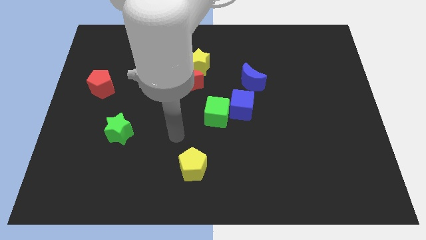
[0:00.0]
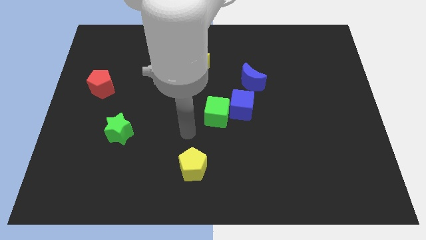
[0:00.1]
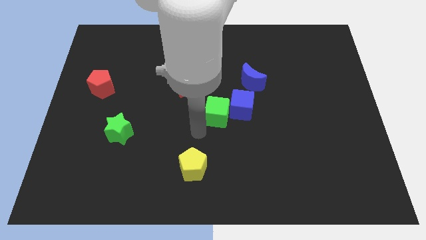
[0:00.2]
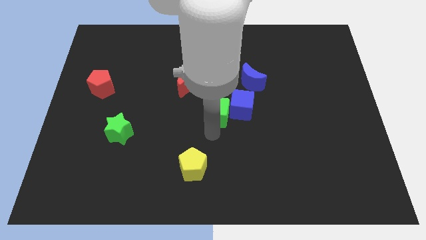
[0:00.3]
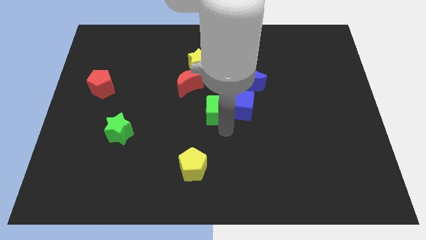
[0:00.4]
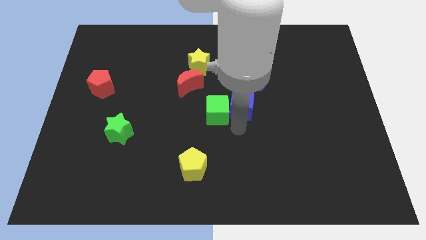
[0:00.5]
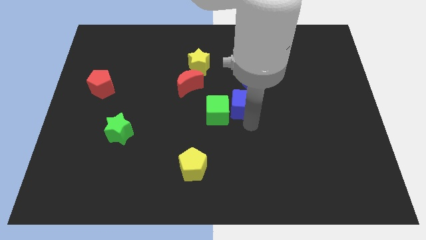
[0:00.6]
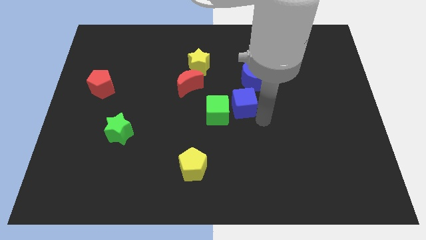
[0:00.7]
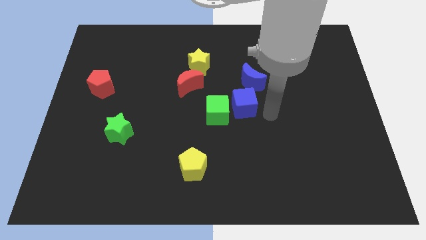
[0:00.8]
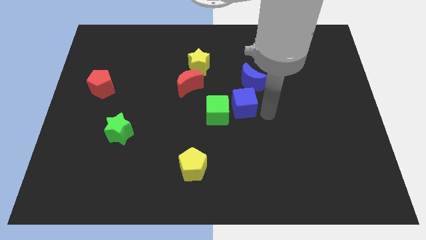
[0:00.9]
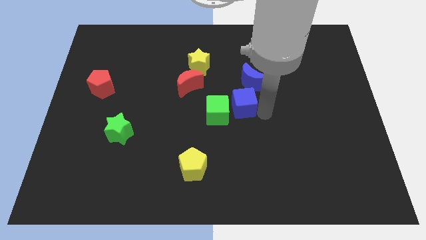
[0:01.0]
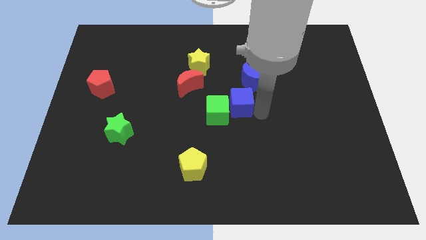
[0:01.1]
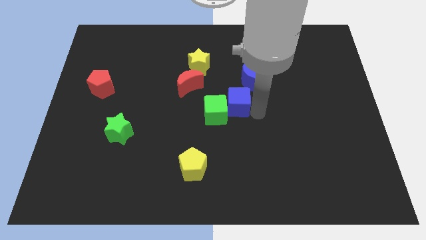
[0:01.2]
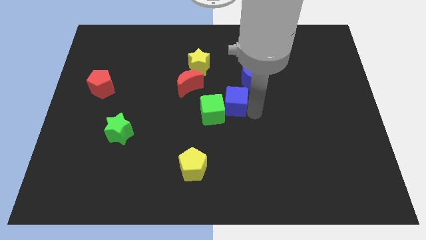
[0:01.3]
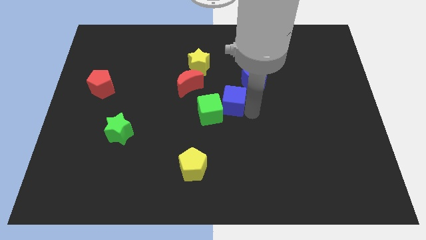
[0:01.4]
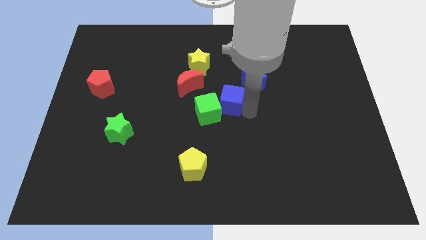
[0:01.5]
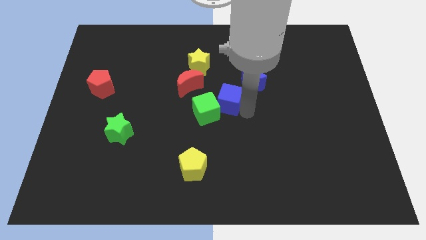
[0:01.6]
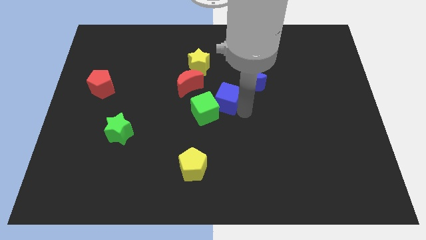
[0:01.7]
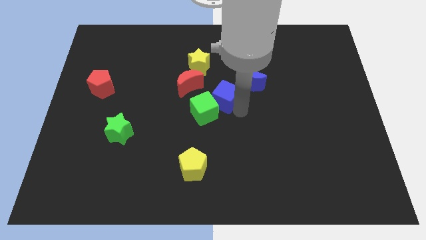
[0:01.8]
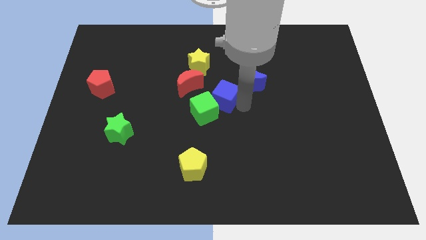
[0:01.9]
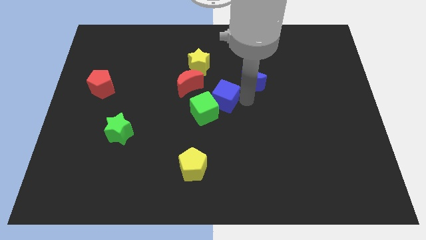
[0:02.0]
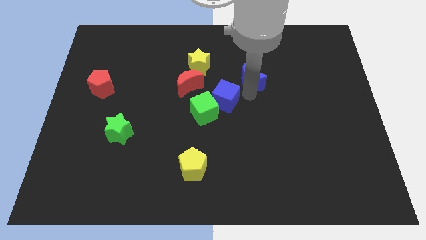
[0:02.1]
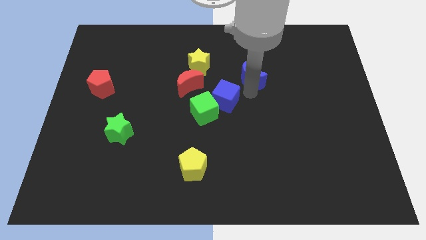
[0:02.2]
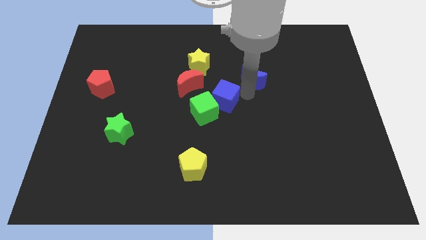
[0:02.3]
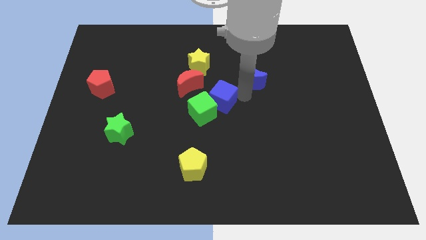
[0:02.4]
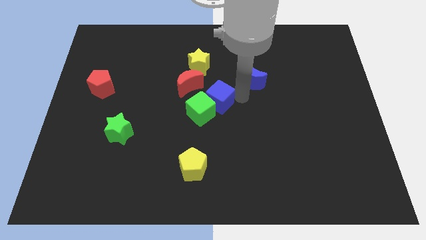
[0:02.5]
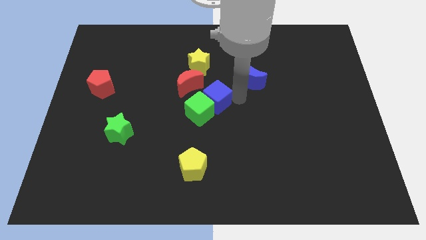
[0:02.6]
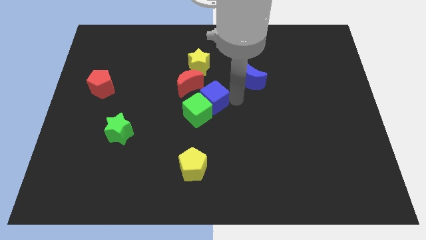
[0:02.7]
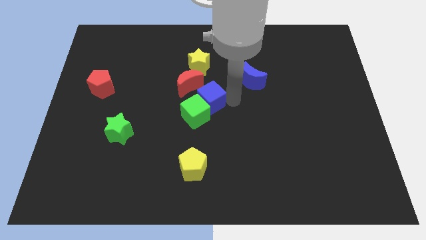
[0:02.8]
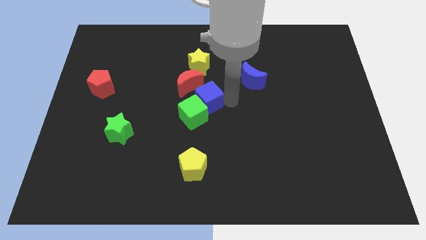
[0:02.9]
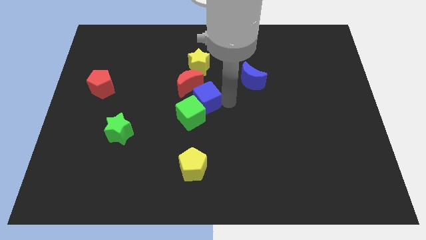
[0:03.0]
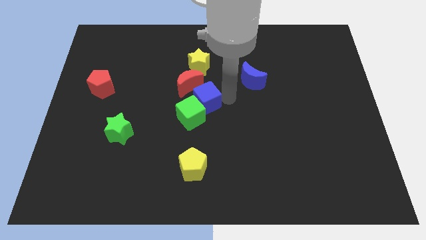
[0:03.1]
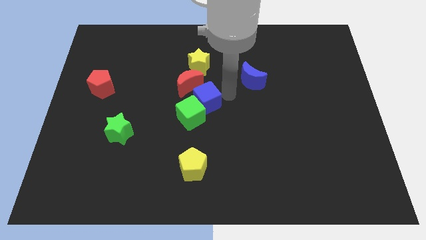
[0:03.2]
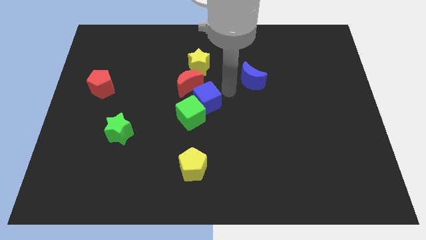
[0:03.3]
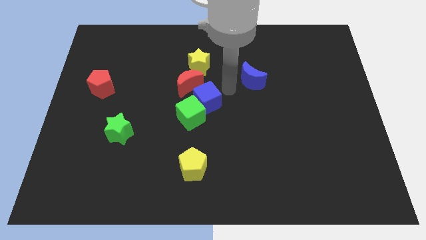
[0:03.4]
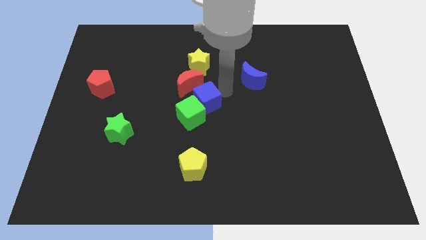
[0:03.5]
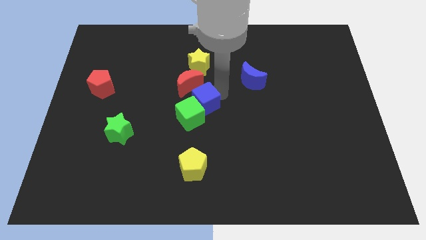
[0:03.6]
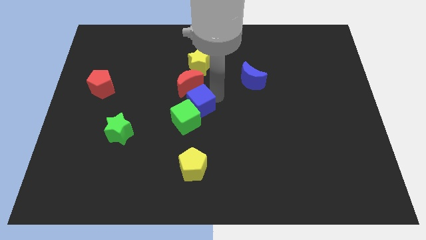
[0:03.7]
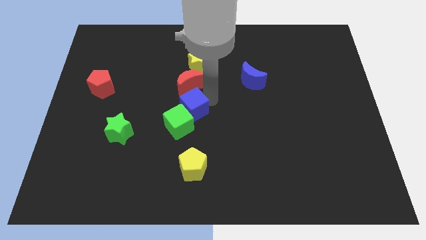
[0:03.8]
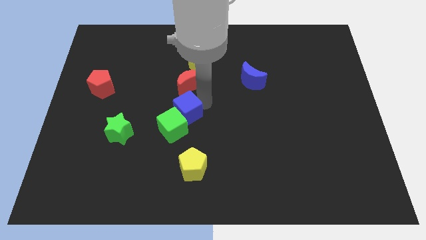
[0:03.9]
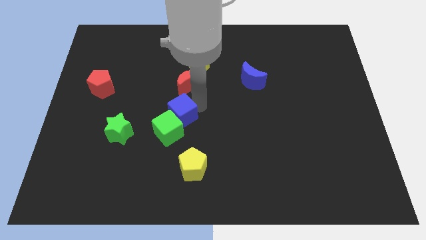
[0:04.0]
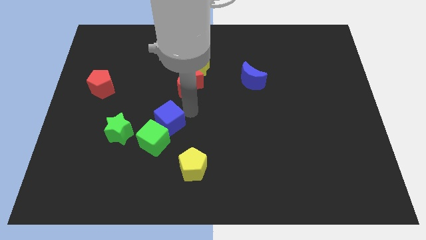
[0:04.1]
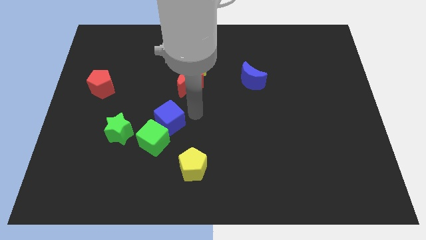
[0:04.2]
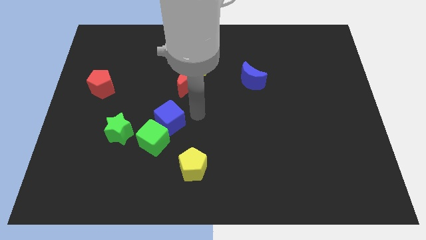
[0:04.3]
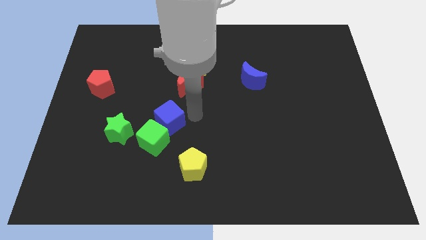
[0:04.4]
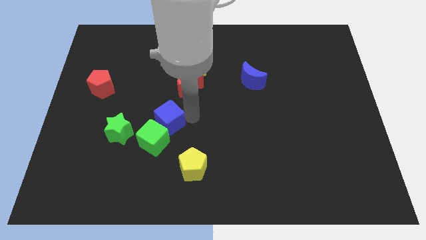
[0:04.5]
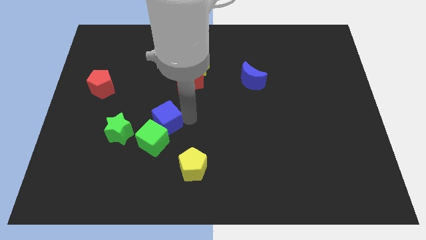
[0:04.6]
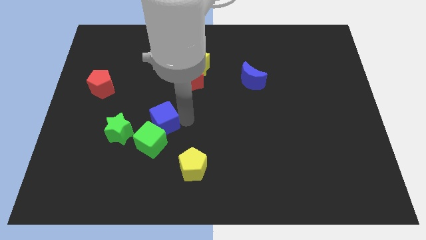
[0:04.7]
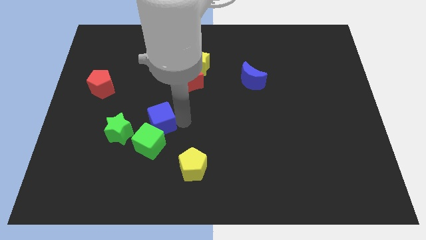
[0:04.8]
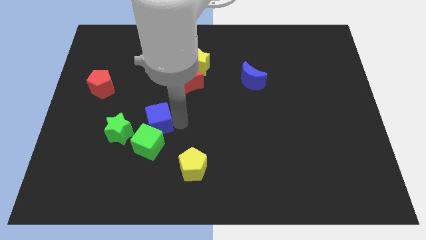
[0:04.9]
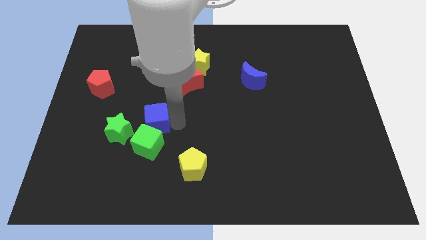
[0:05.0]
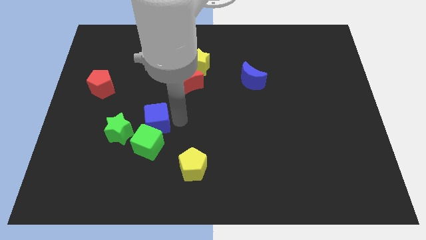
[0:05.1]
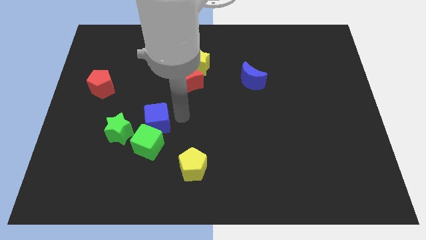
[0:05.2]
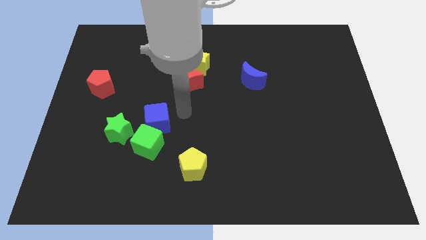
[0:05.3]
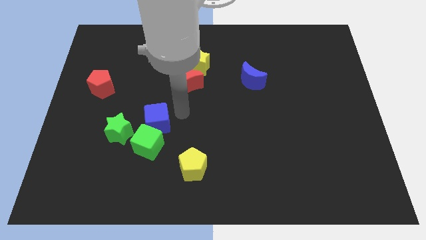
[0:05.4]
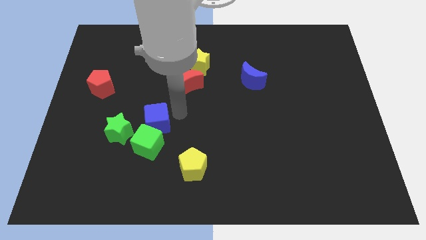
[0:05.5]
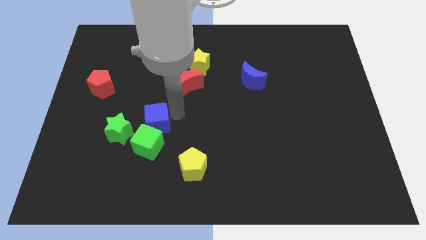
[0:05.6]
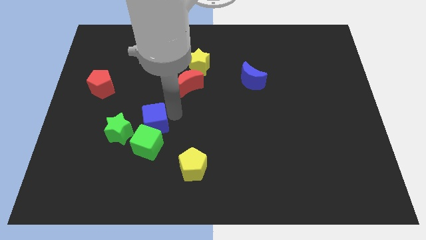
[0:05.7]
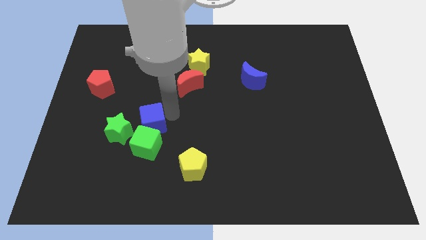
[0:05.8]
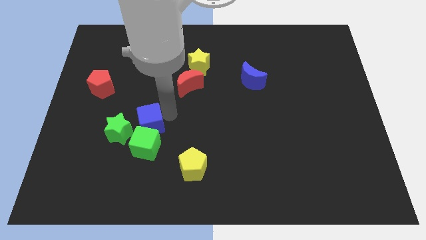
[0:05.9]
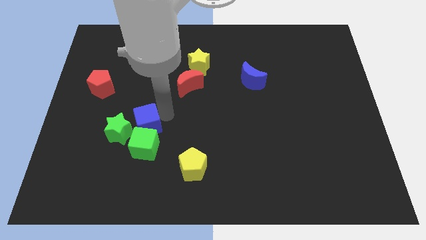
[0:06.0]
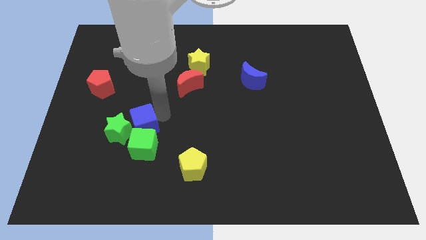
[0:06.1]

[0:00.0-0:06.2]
push the blue cube towards the green star

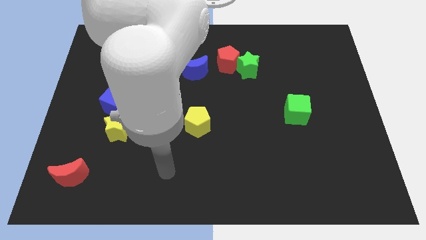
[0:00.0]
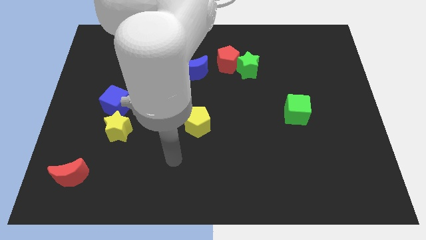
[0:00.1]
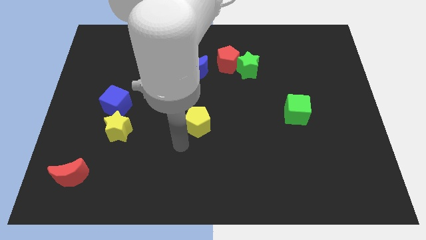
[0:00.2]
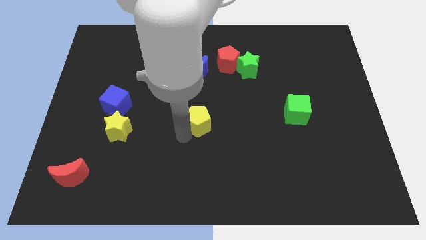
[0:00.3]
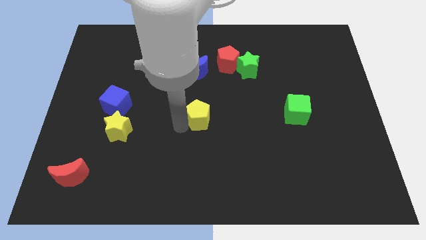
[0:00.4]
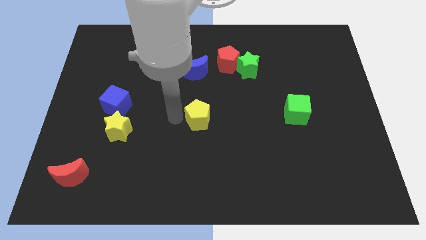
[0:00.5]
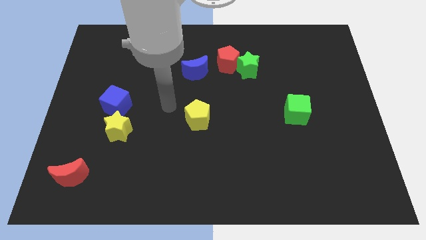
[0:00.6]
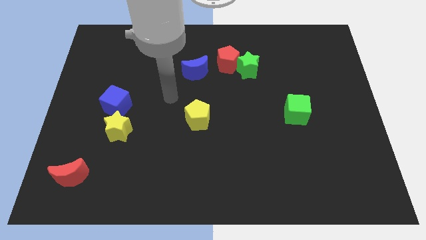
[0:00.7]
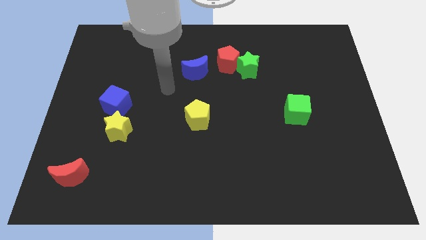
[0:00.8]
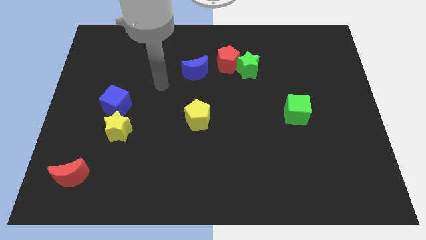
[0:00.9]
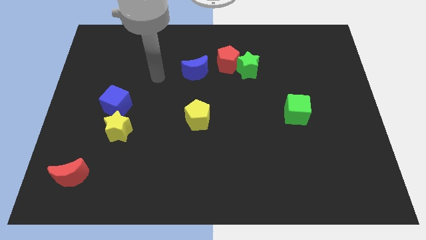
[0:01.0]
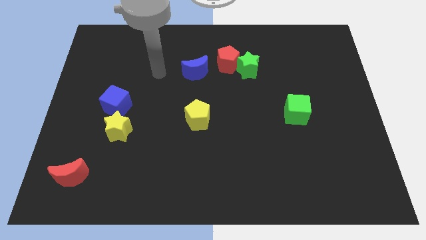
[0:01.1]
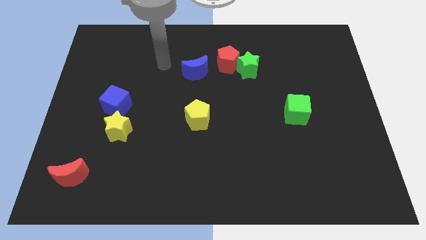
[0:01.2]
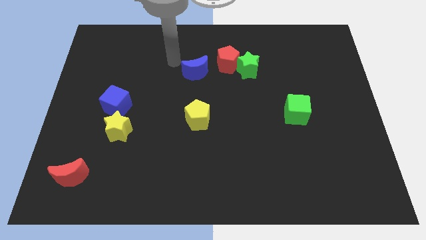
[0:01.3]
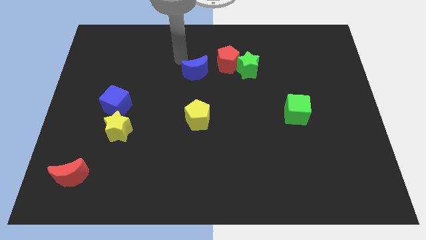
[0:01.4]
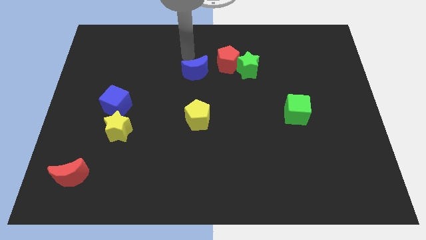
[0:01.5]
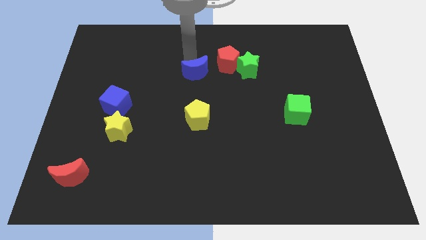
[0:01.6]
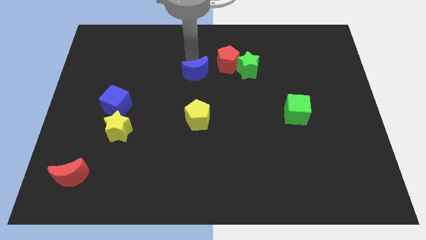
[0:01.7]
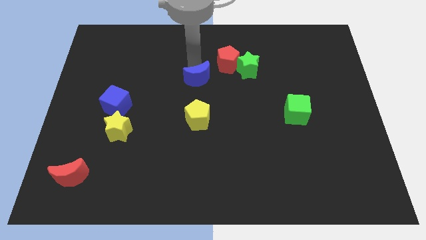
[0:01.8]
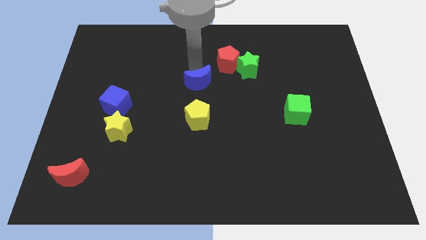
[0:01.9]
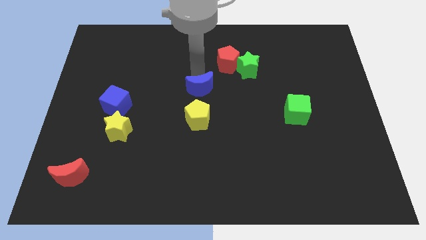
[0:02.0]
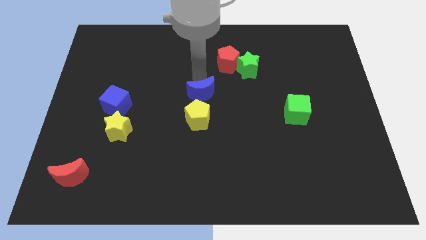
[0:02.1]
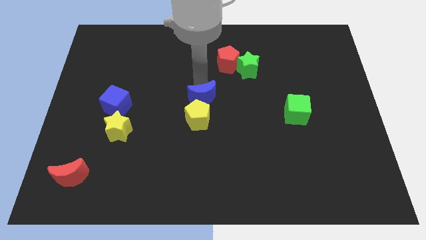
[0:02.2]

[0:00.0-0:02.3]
push the blue moon to the yellow pentagon
